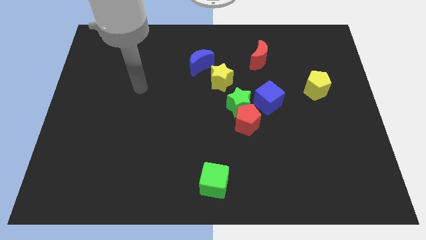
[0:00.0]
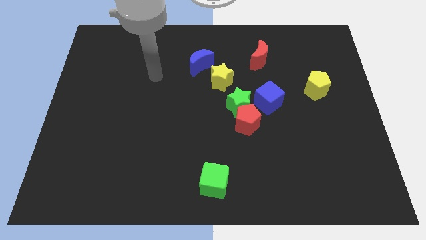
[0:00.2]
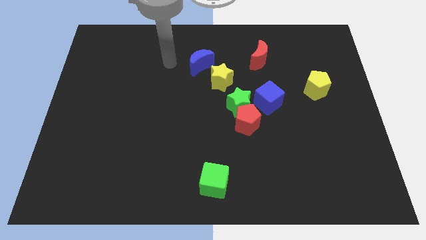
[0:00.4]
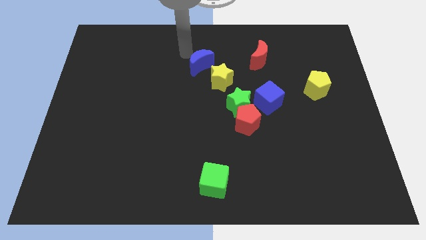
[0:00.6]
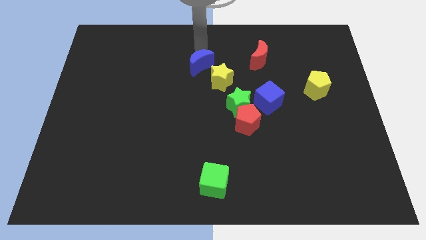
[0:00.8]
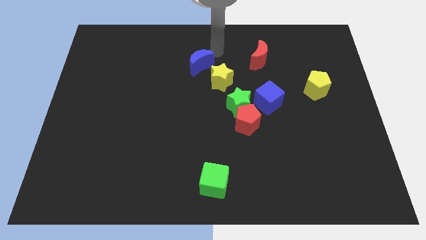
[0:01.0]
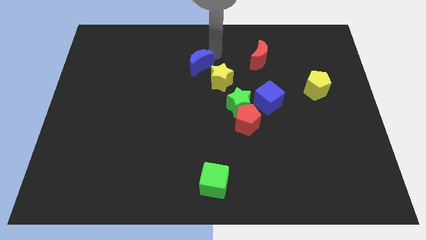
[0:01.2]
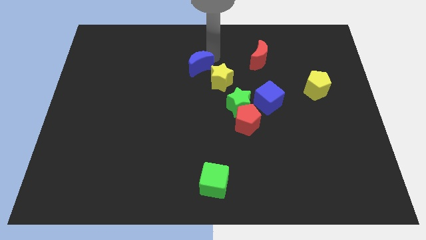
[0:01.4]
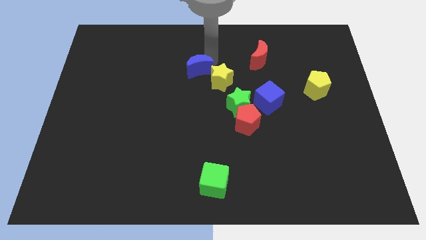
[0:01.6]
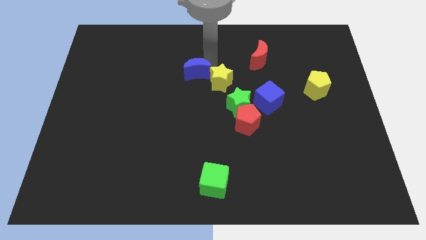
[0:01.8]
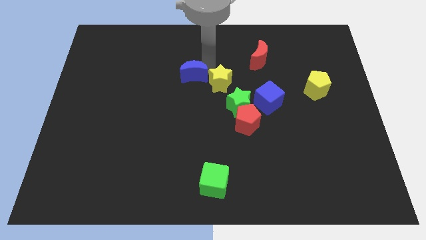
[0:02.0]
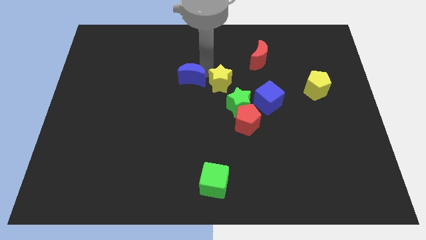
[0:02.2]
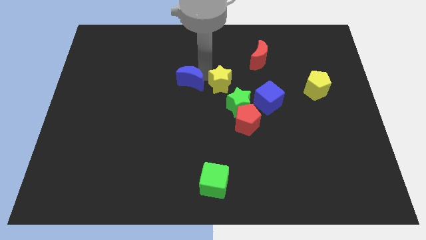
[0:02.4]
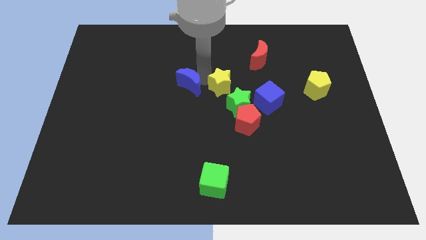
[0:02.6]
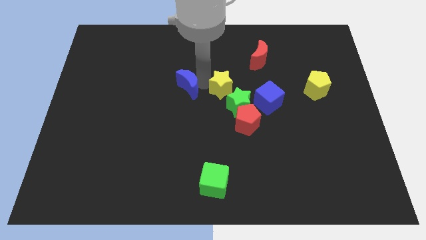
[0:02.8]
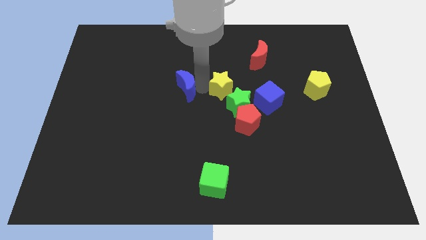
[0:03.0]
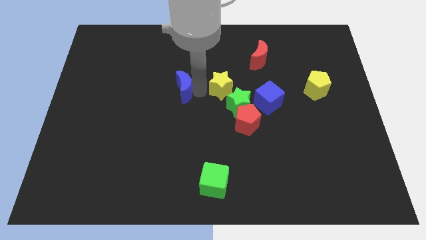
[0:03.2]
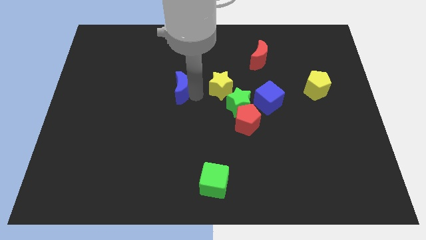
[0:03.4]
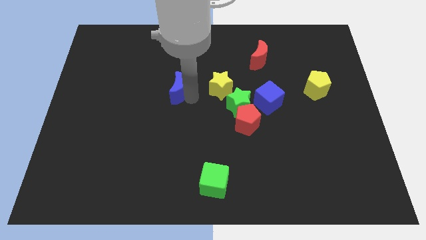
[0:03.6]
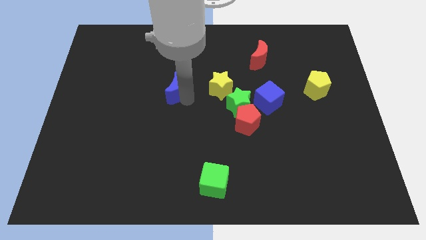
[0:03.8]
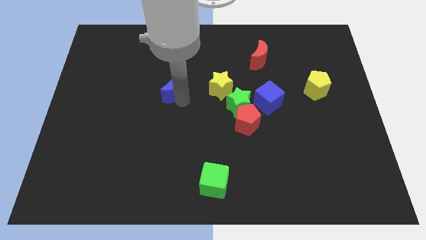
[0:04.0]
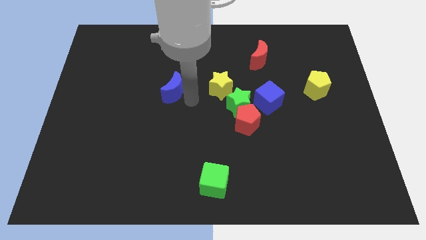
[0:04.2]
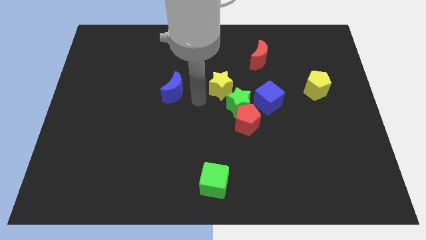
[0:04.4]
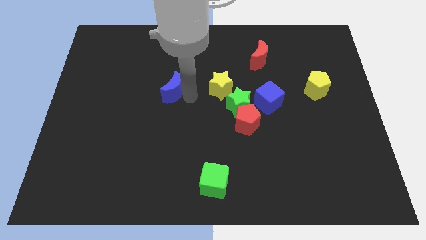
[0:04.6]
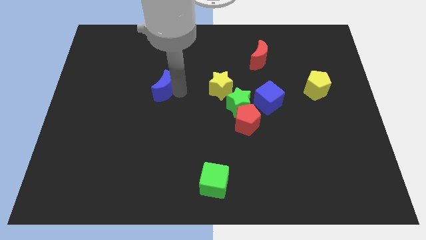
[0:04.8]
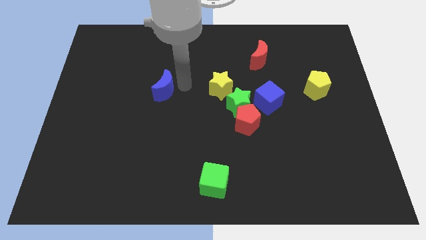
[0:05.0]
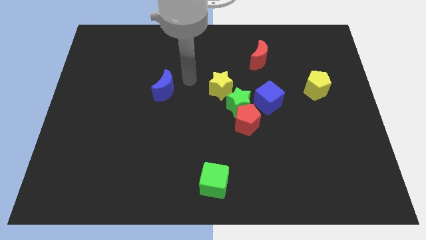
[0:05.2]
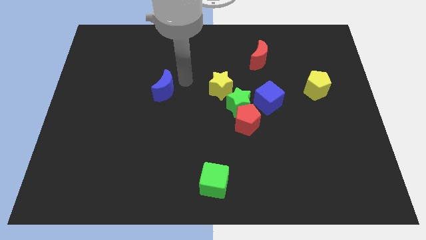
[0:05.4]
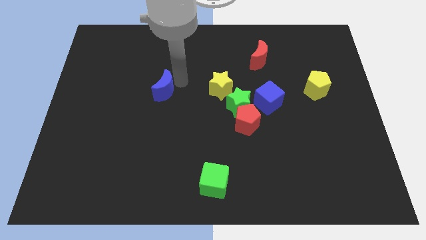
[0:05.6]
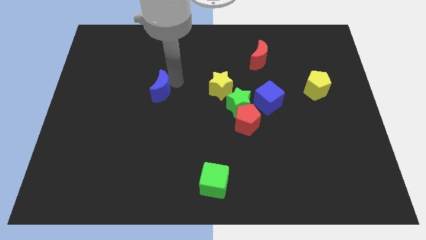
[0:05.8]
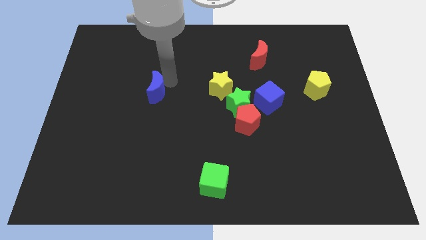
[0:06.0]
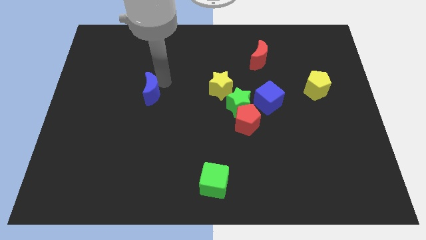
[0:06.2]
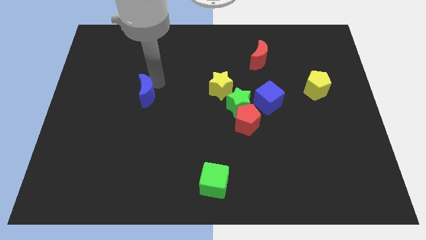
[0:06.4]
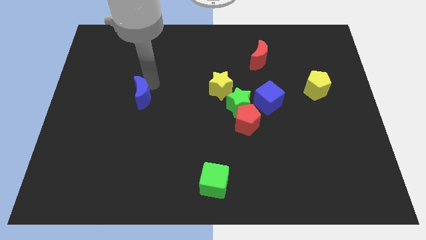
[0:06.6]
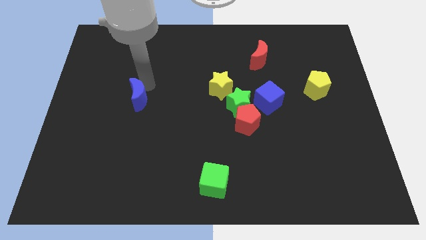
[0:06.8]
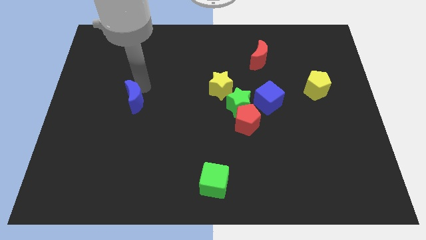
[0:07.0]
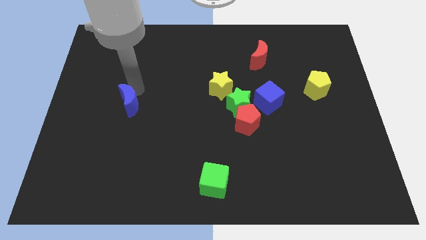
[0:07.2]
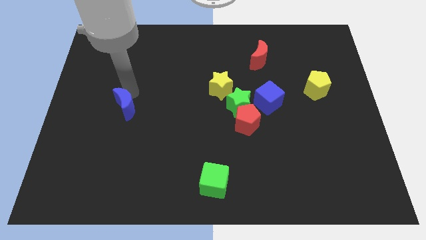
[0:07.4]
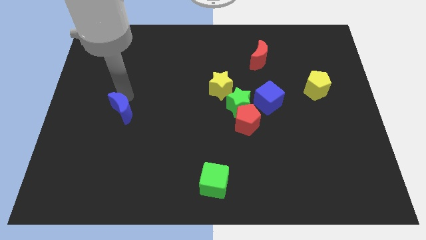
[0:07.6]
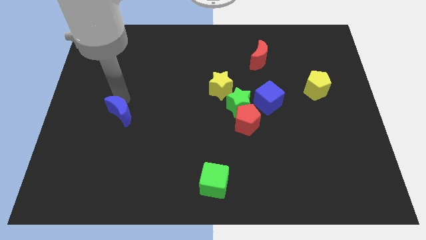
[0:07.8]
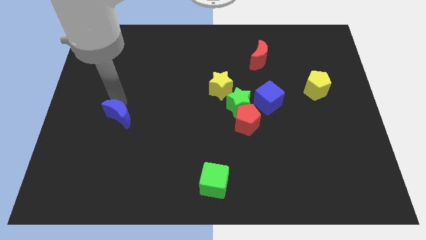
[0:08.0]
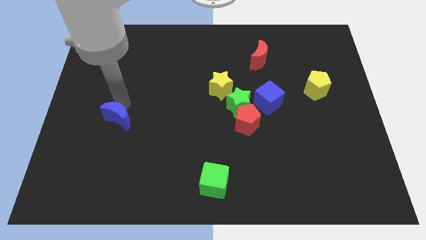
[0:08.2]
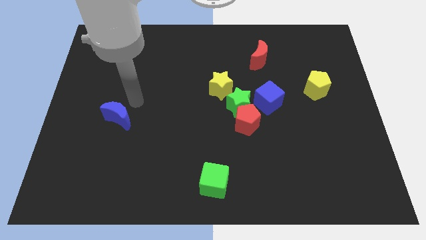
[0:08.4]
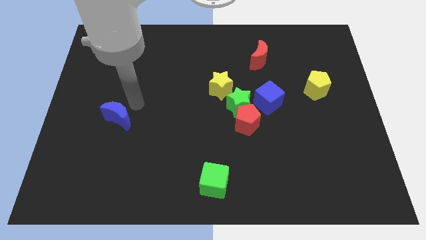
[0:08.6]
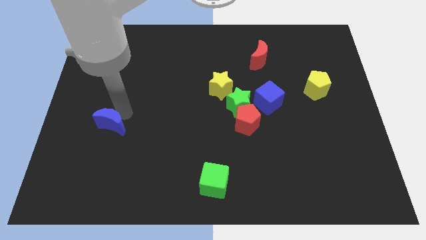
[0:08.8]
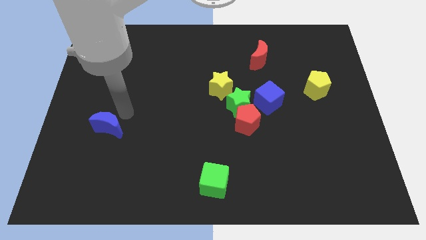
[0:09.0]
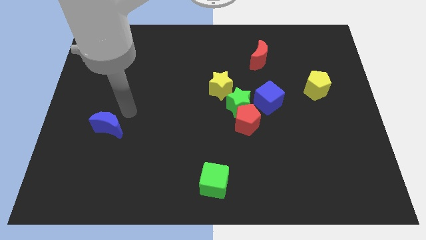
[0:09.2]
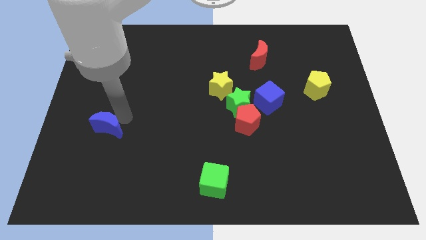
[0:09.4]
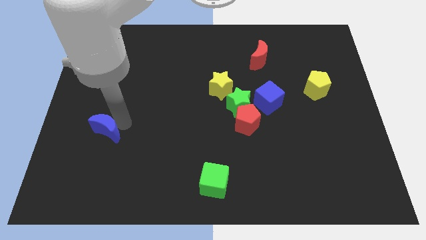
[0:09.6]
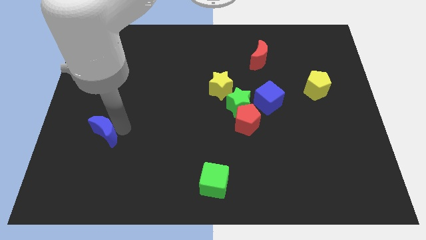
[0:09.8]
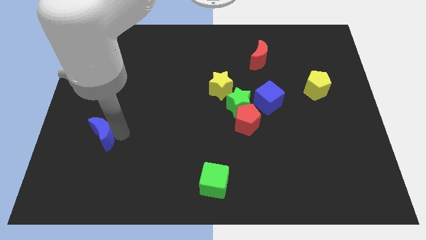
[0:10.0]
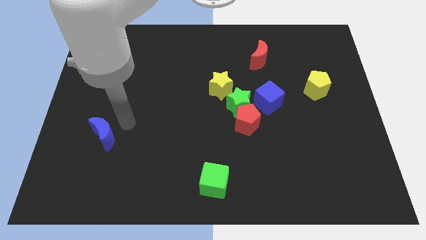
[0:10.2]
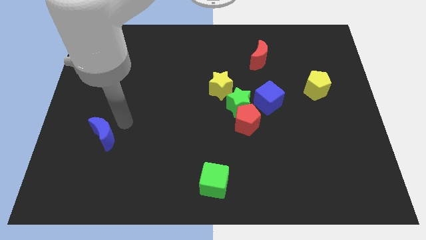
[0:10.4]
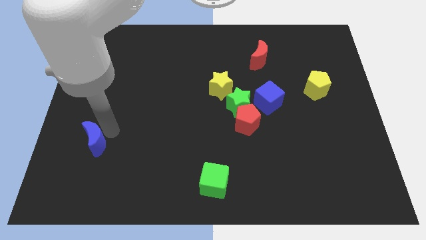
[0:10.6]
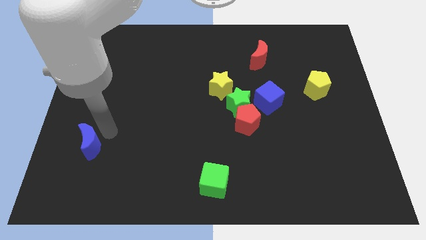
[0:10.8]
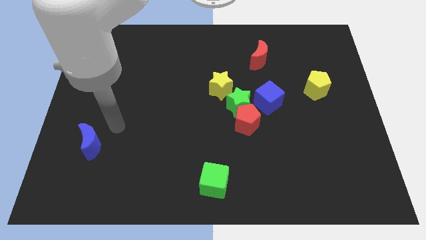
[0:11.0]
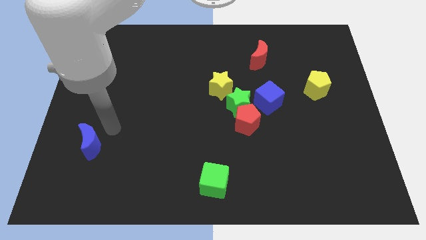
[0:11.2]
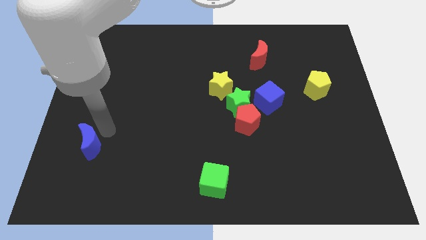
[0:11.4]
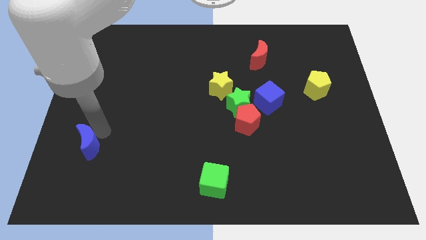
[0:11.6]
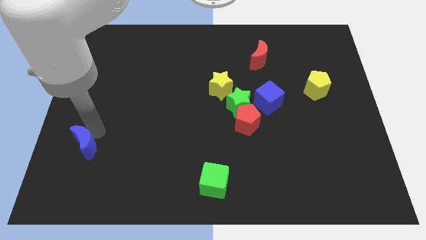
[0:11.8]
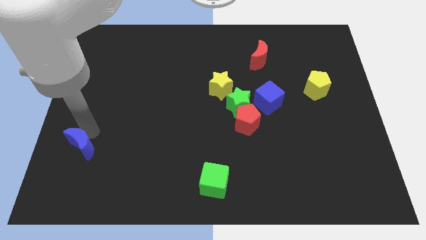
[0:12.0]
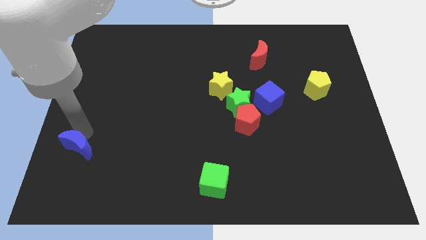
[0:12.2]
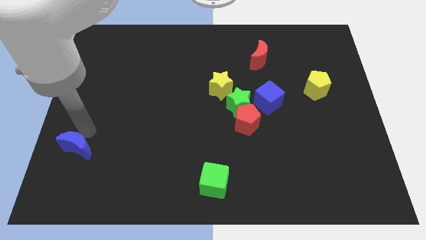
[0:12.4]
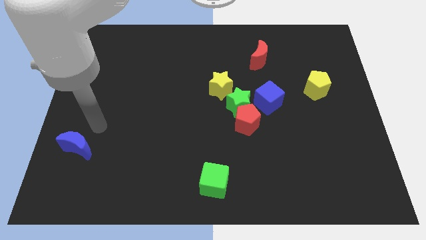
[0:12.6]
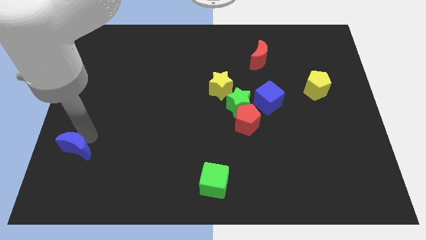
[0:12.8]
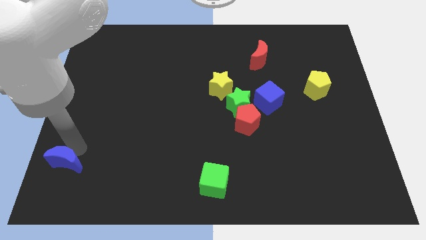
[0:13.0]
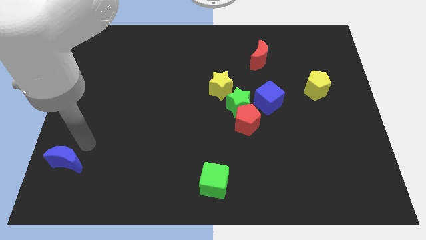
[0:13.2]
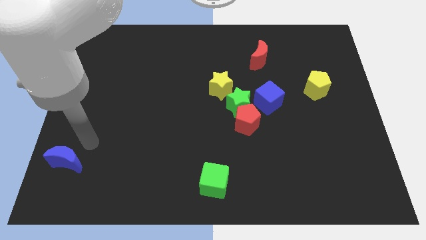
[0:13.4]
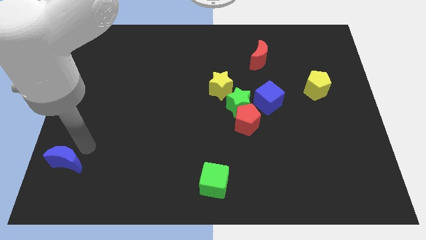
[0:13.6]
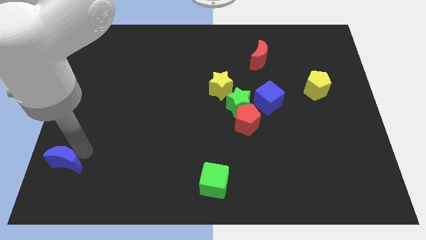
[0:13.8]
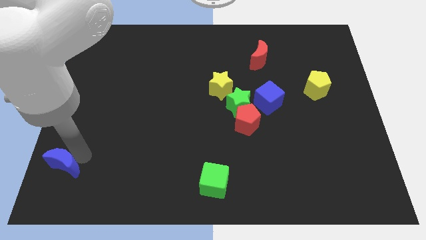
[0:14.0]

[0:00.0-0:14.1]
slide the blue moon to the bottom left corner

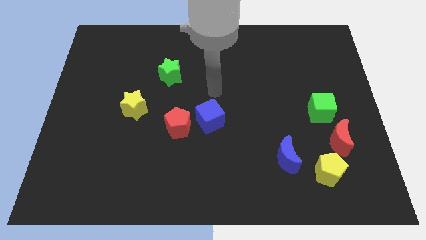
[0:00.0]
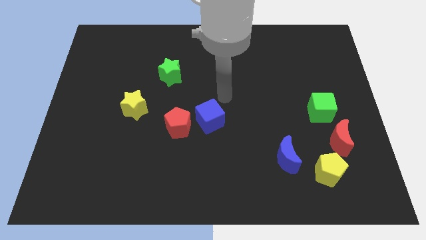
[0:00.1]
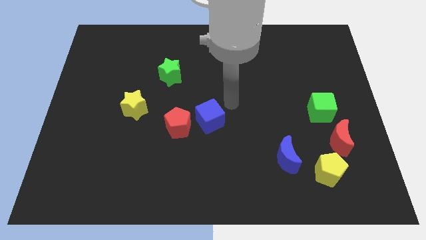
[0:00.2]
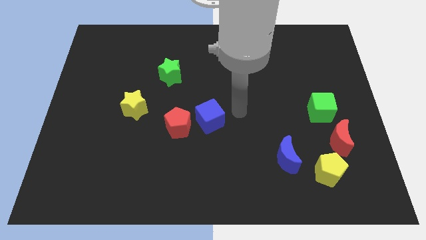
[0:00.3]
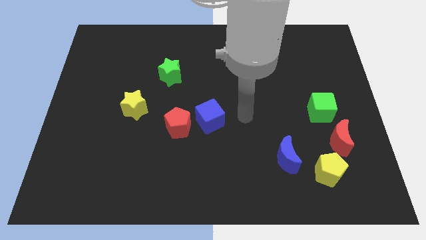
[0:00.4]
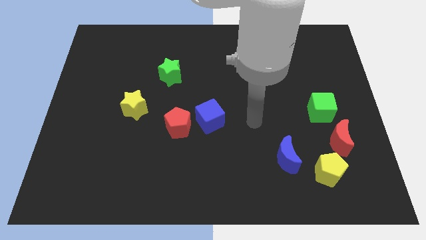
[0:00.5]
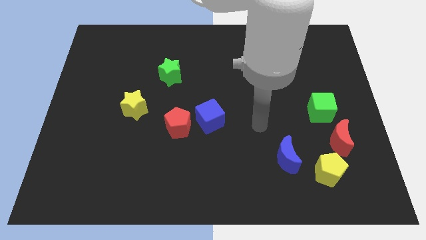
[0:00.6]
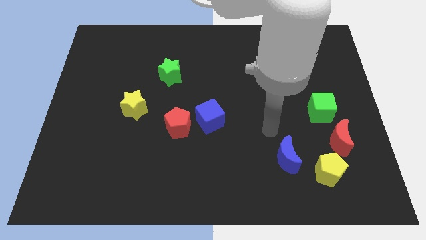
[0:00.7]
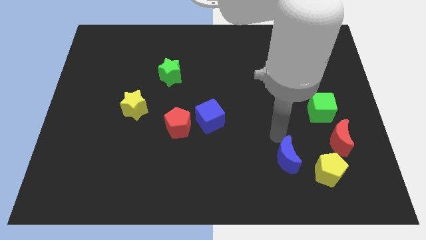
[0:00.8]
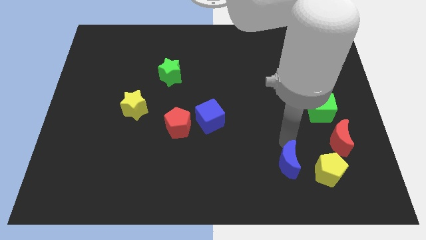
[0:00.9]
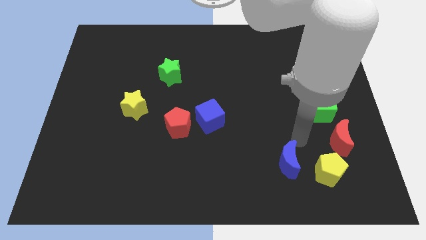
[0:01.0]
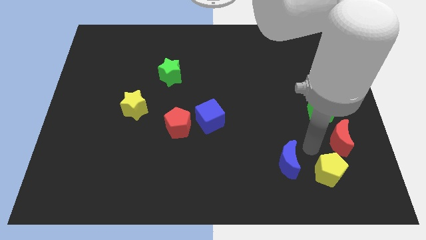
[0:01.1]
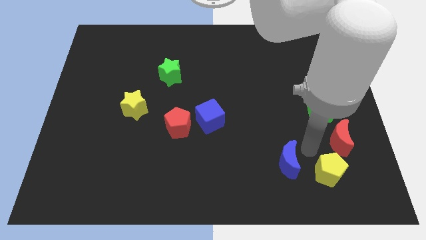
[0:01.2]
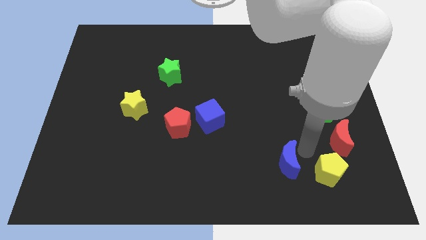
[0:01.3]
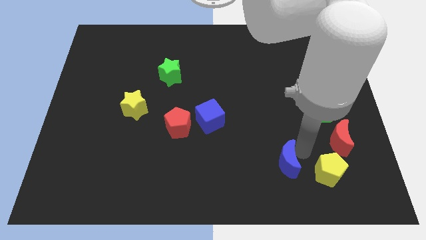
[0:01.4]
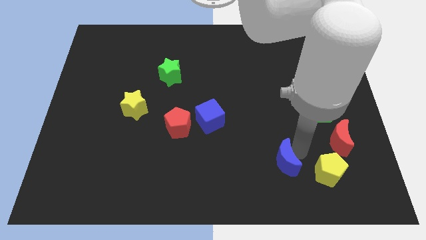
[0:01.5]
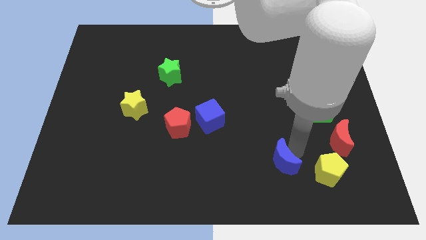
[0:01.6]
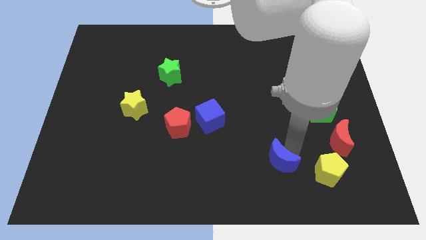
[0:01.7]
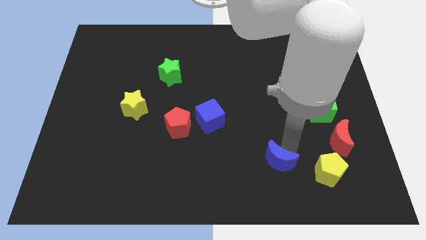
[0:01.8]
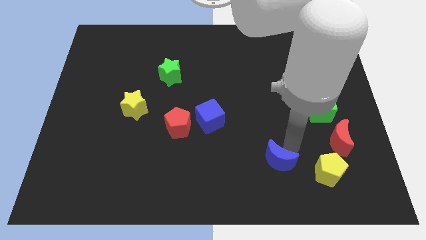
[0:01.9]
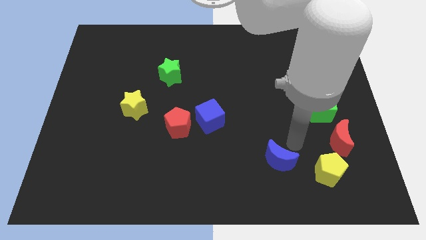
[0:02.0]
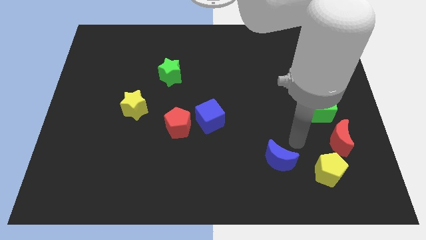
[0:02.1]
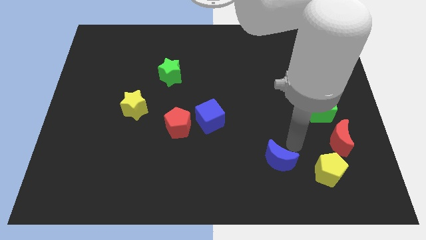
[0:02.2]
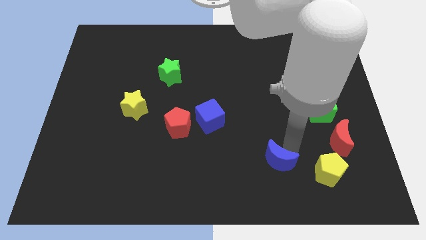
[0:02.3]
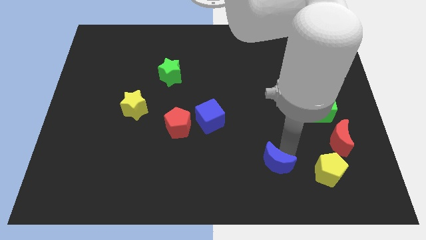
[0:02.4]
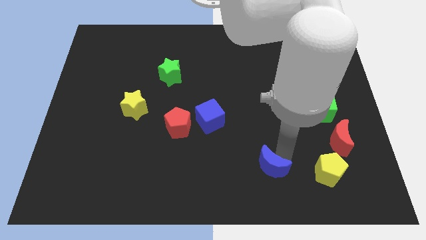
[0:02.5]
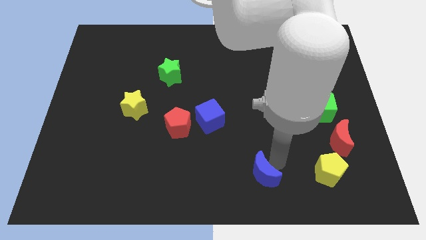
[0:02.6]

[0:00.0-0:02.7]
move the blue moon to the bottom side
